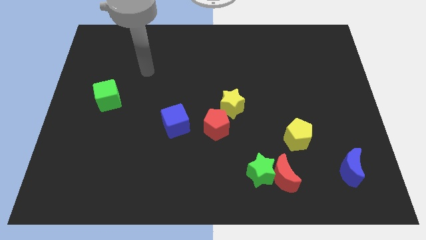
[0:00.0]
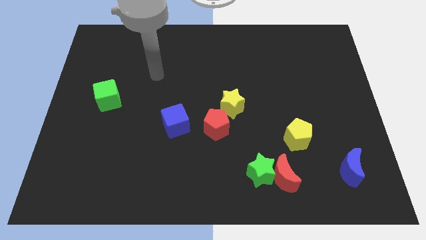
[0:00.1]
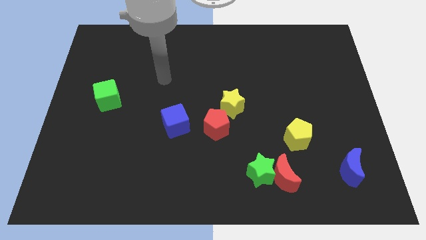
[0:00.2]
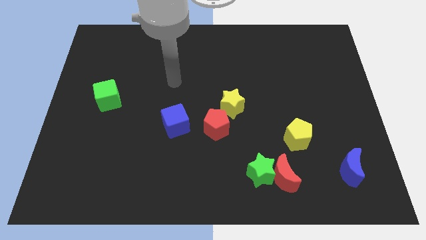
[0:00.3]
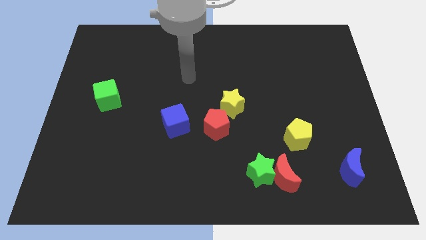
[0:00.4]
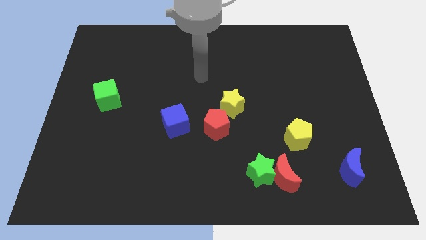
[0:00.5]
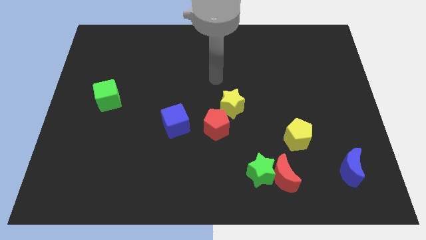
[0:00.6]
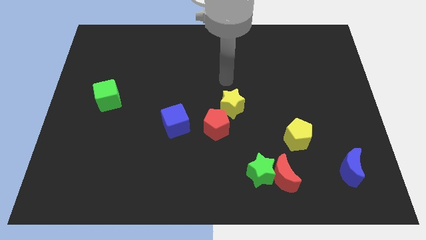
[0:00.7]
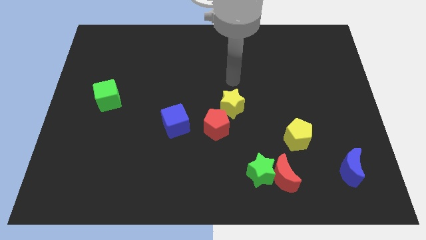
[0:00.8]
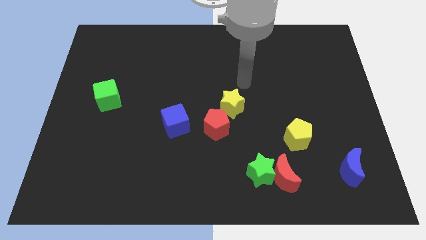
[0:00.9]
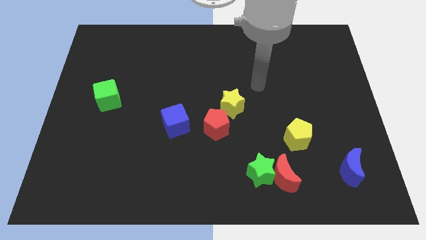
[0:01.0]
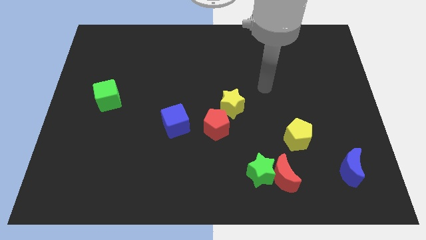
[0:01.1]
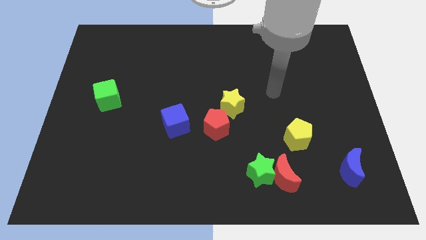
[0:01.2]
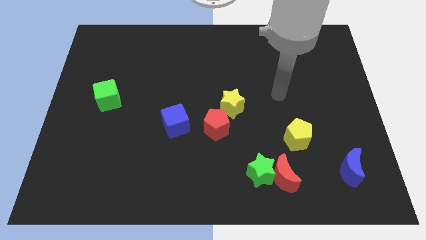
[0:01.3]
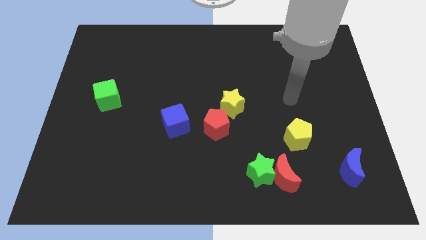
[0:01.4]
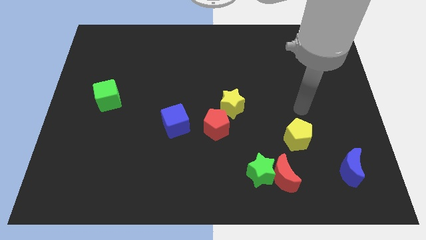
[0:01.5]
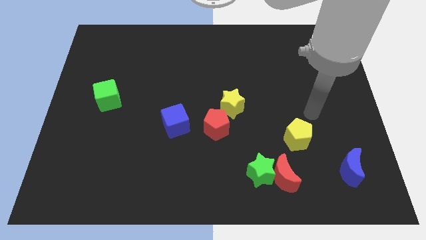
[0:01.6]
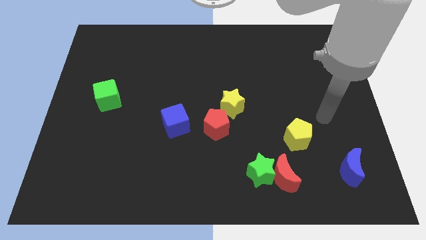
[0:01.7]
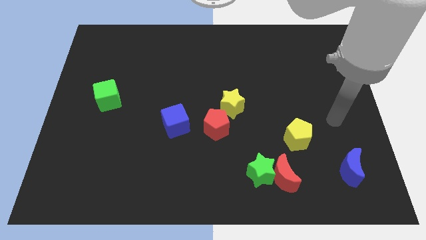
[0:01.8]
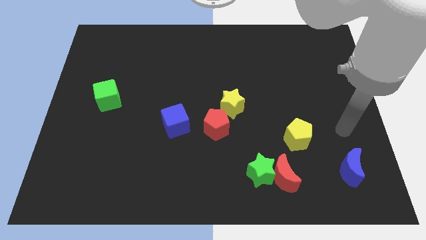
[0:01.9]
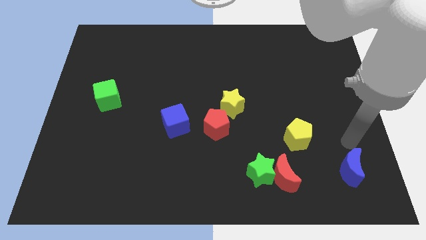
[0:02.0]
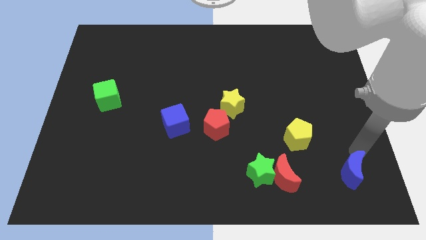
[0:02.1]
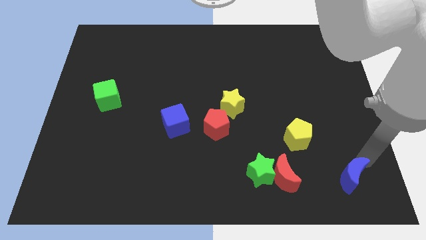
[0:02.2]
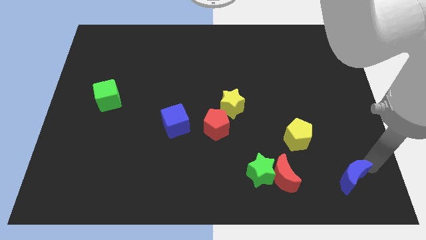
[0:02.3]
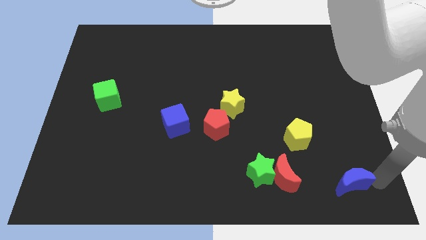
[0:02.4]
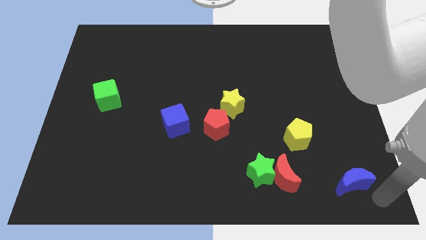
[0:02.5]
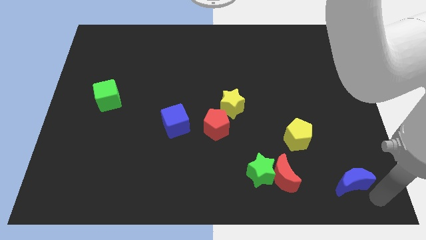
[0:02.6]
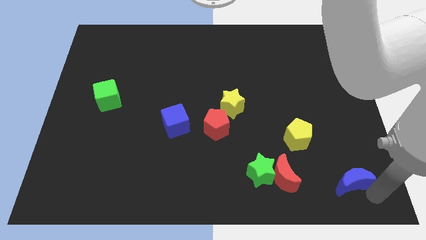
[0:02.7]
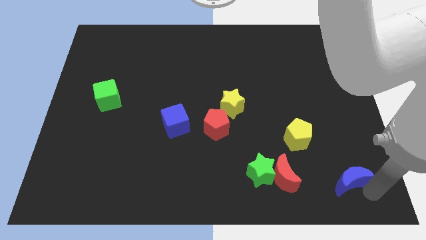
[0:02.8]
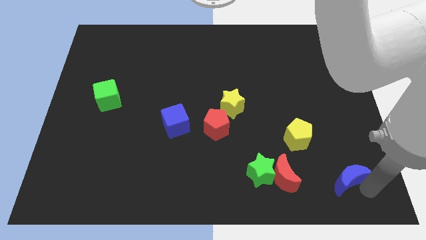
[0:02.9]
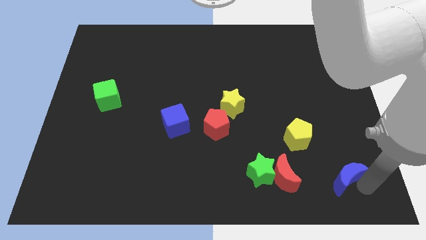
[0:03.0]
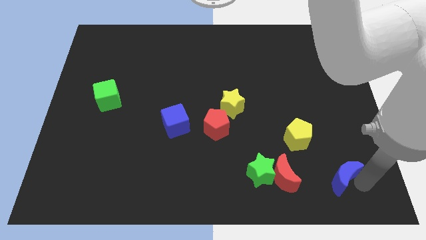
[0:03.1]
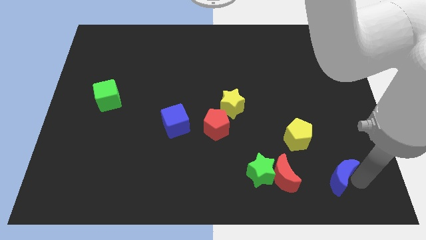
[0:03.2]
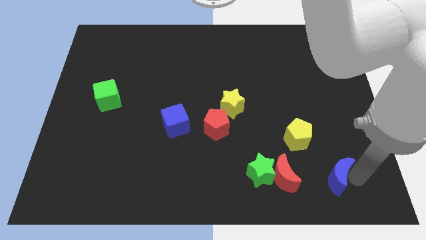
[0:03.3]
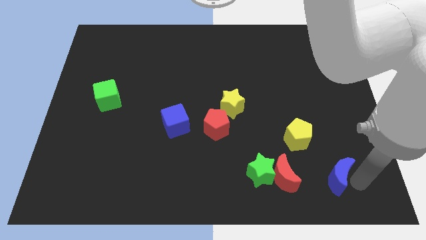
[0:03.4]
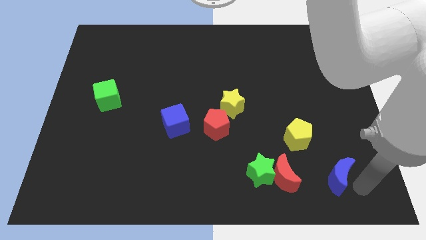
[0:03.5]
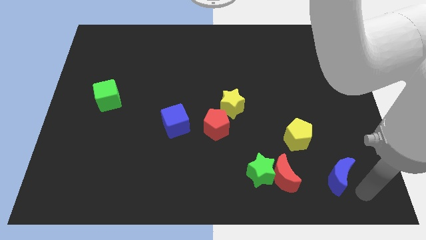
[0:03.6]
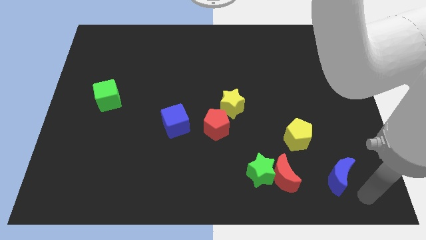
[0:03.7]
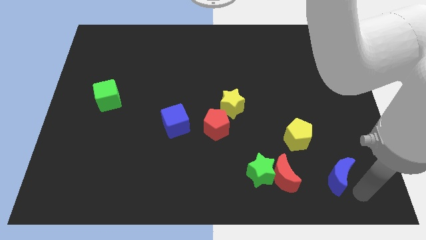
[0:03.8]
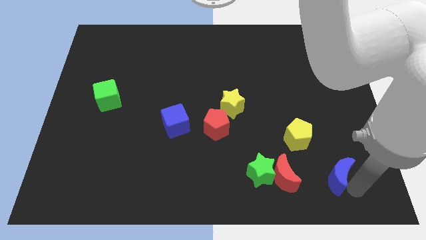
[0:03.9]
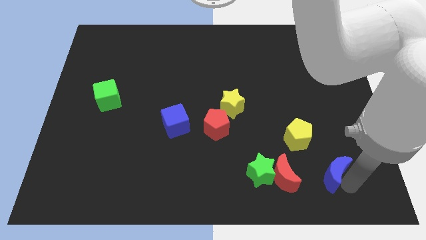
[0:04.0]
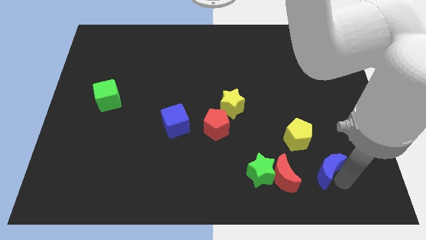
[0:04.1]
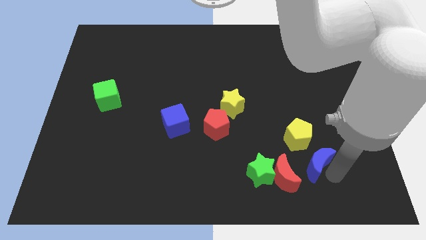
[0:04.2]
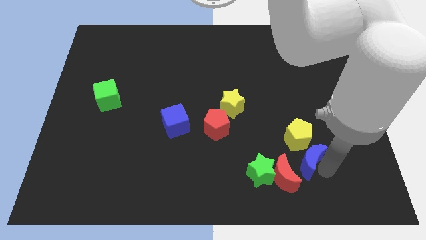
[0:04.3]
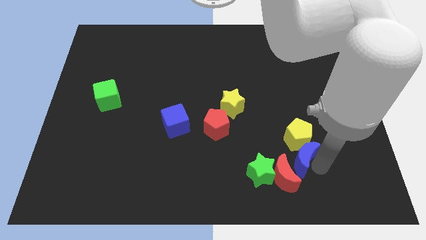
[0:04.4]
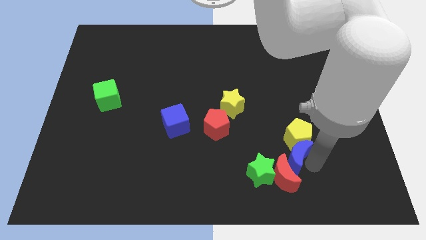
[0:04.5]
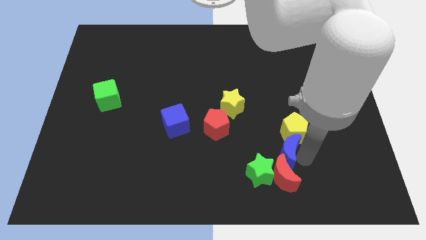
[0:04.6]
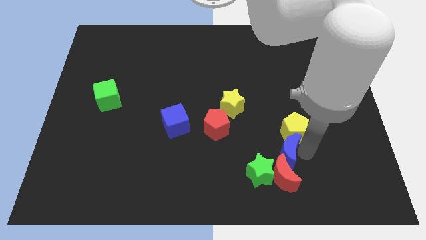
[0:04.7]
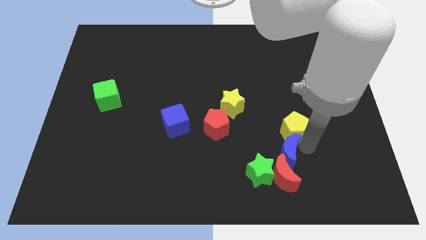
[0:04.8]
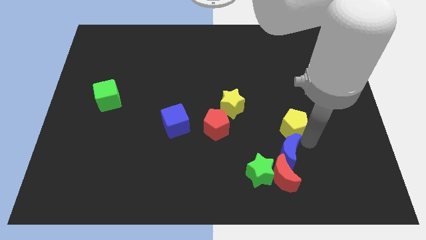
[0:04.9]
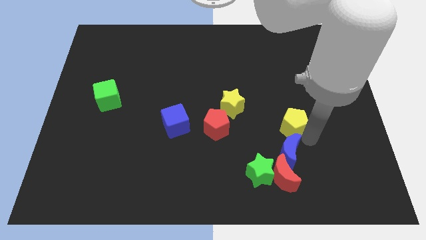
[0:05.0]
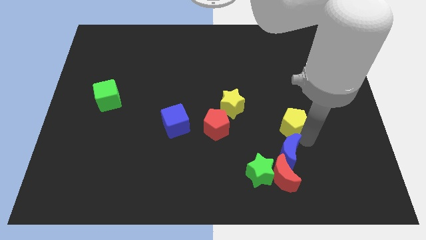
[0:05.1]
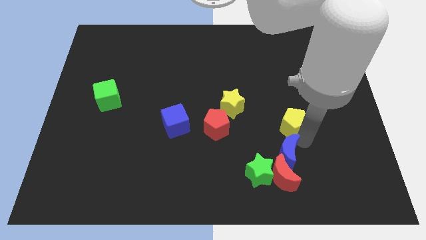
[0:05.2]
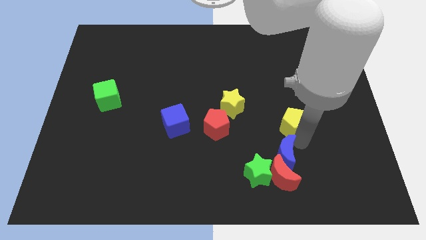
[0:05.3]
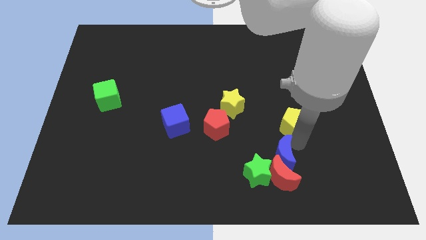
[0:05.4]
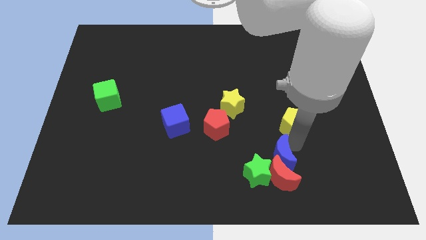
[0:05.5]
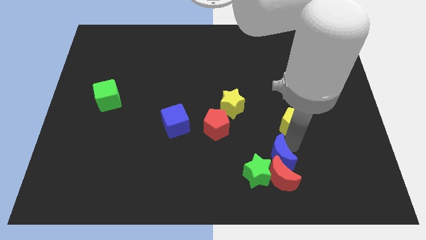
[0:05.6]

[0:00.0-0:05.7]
push the blue moon close to the green star

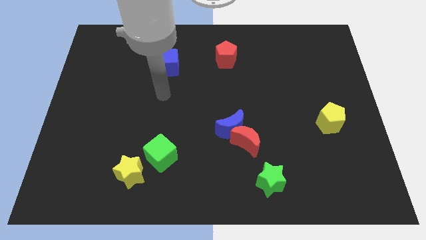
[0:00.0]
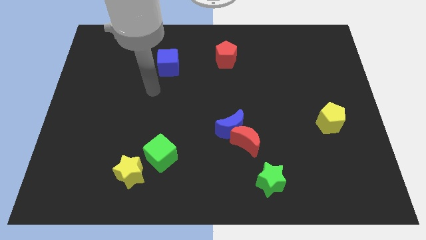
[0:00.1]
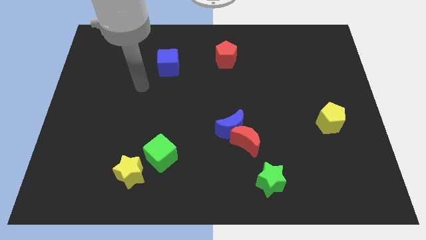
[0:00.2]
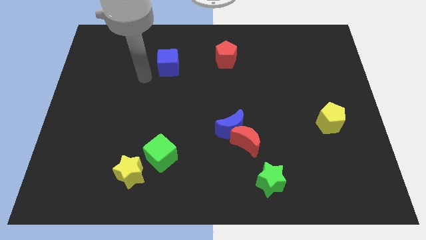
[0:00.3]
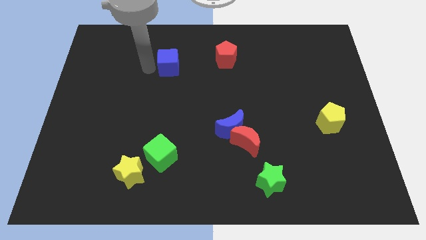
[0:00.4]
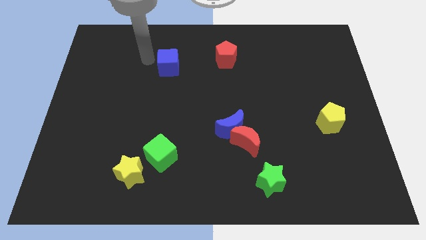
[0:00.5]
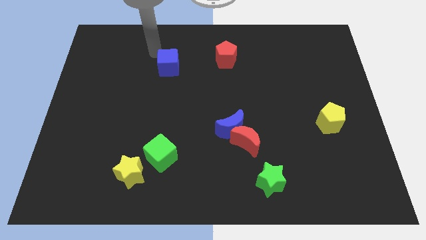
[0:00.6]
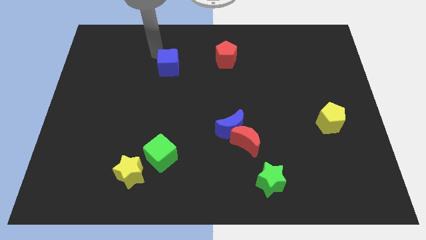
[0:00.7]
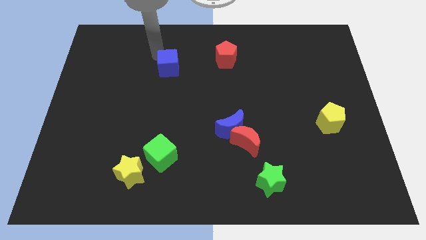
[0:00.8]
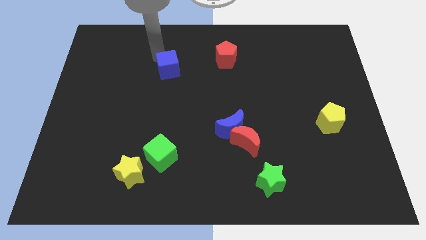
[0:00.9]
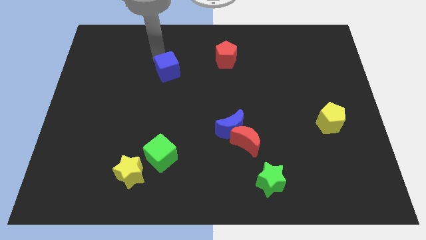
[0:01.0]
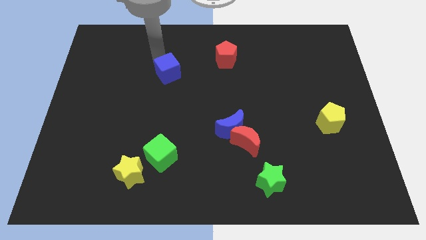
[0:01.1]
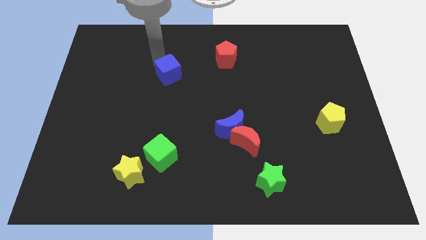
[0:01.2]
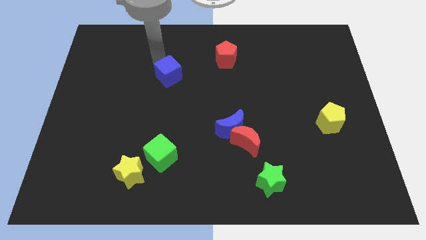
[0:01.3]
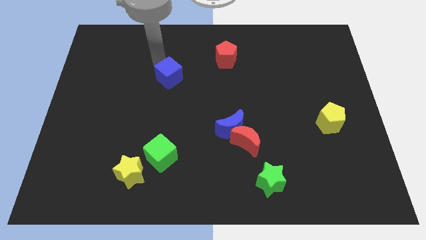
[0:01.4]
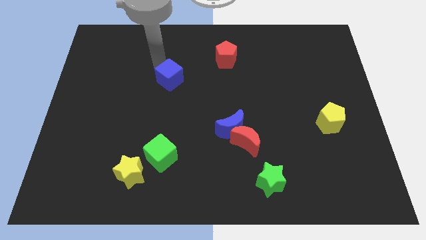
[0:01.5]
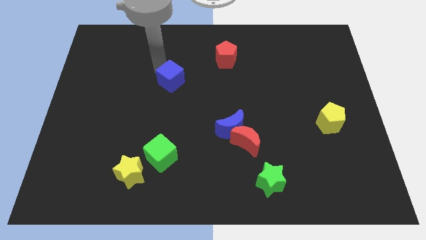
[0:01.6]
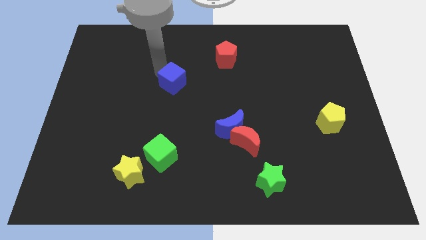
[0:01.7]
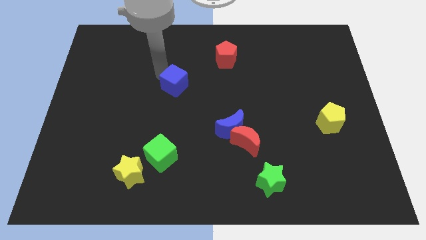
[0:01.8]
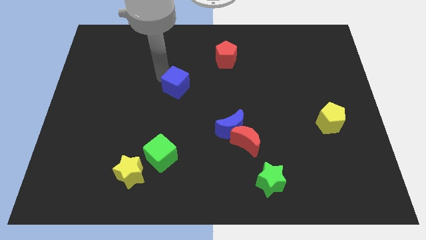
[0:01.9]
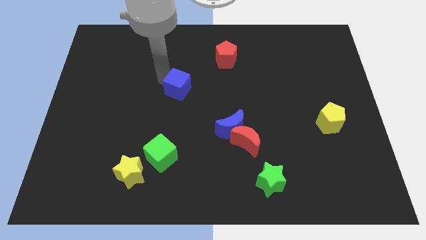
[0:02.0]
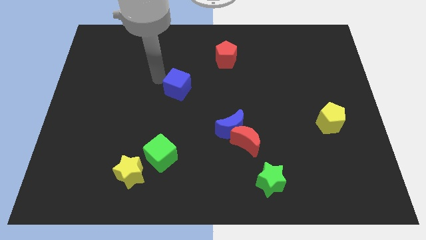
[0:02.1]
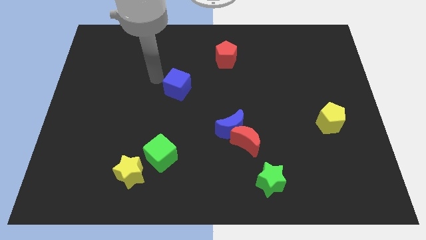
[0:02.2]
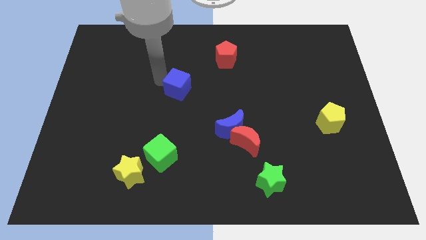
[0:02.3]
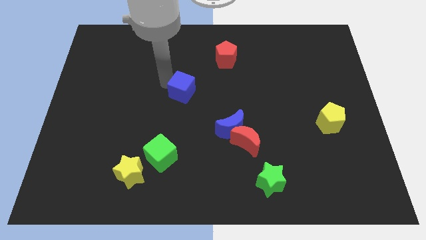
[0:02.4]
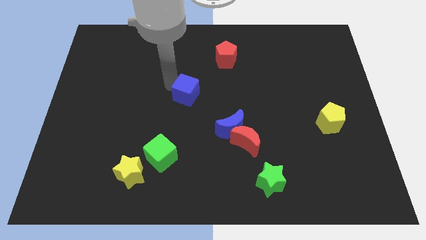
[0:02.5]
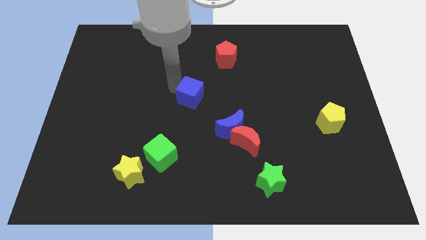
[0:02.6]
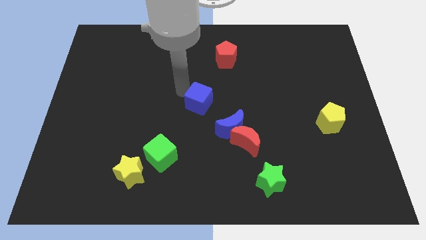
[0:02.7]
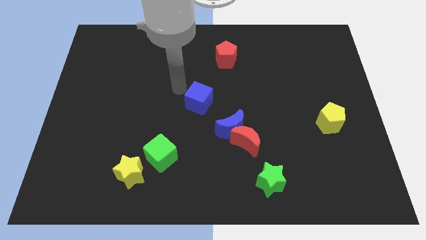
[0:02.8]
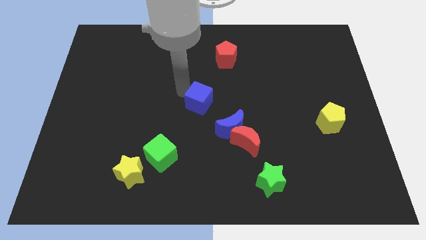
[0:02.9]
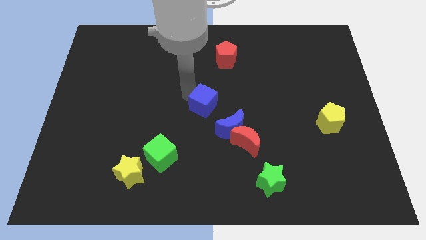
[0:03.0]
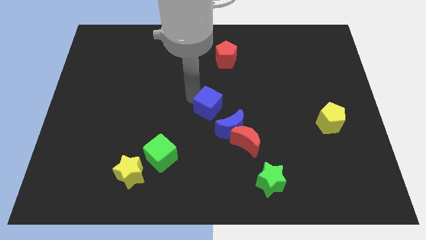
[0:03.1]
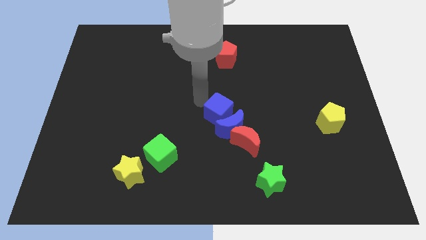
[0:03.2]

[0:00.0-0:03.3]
push the blue cube close to the blue moon
